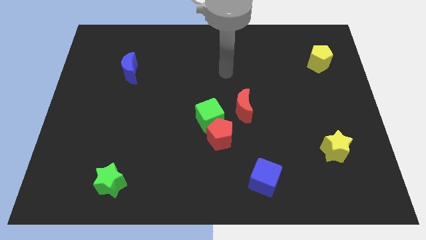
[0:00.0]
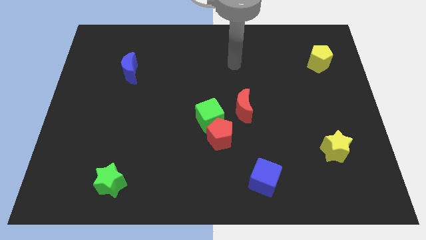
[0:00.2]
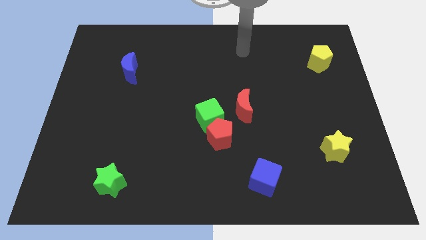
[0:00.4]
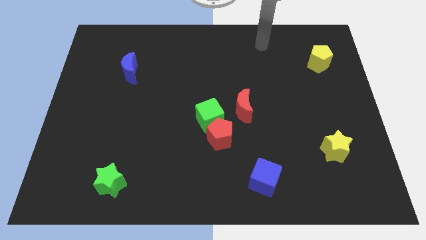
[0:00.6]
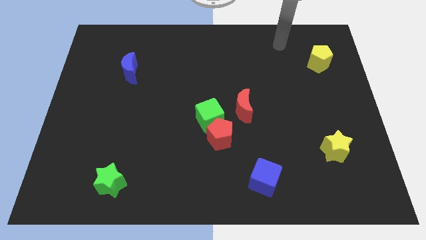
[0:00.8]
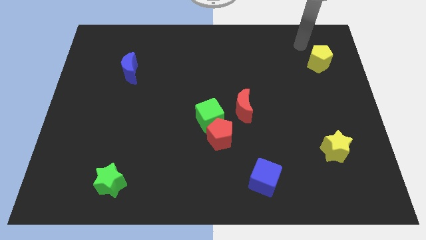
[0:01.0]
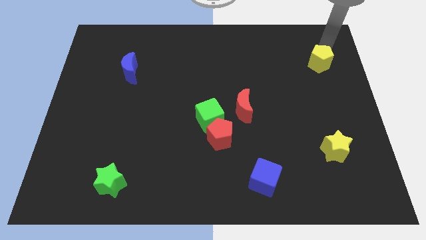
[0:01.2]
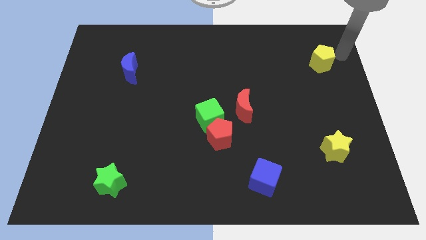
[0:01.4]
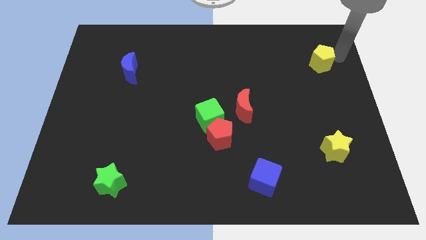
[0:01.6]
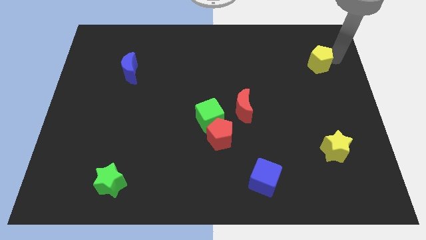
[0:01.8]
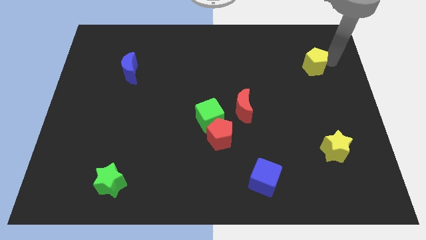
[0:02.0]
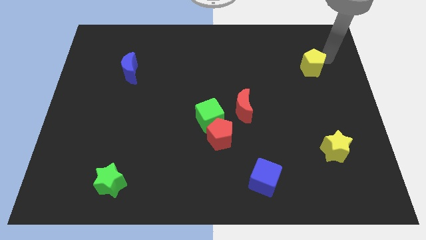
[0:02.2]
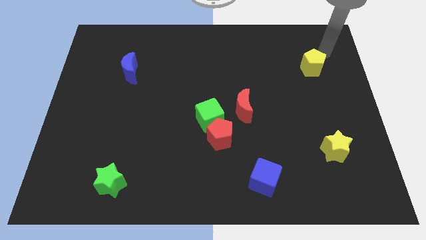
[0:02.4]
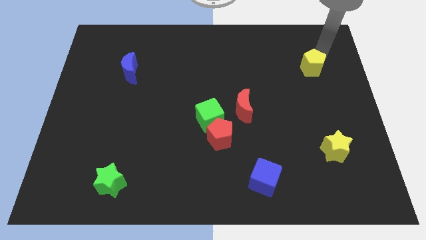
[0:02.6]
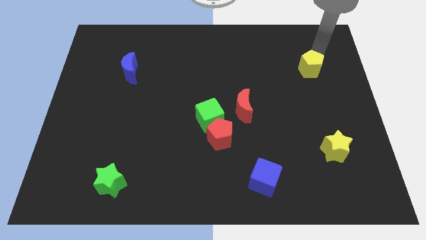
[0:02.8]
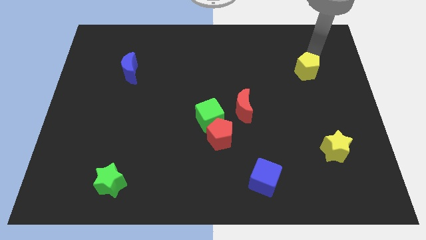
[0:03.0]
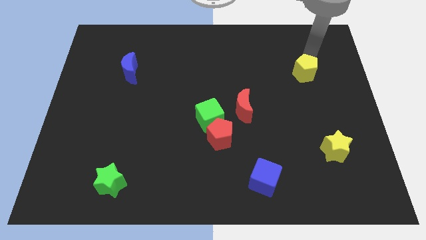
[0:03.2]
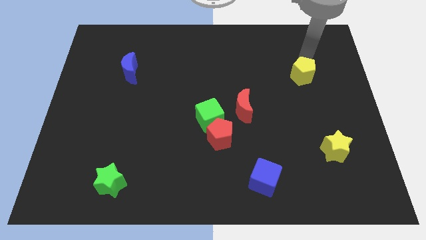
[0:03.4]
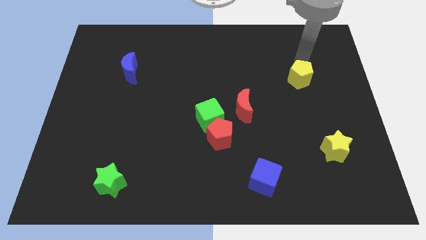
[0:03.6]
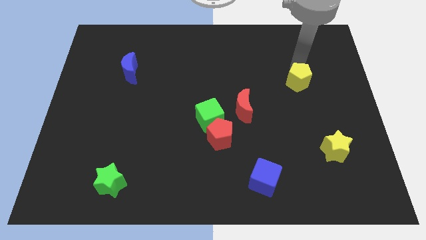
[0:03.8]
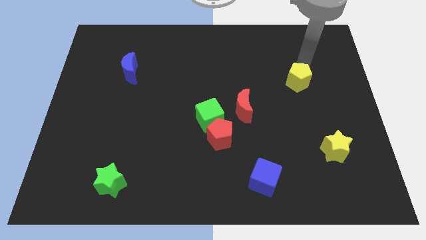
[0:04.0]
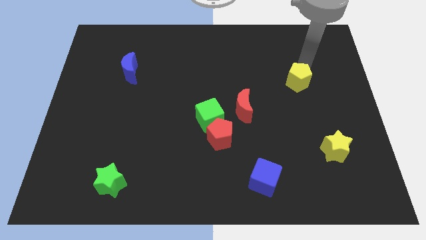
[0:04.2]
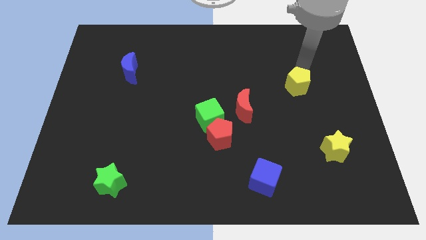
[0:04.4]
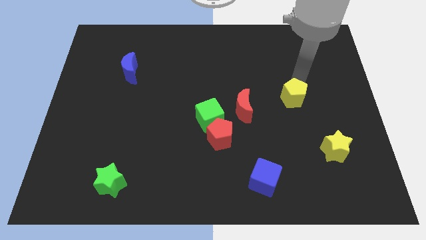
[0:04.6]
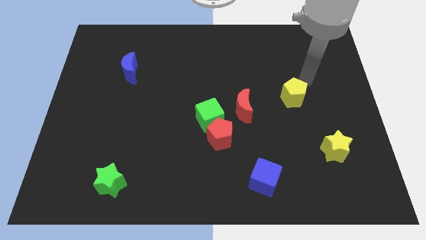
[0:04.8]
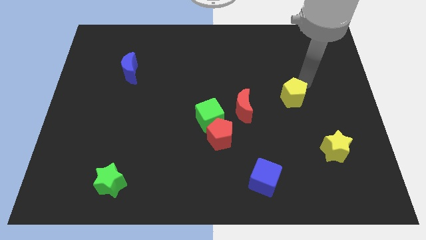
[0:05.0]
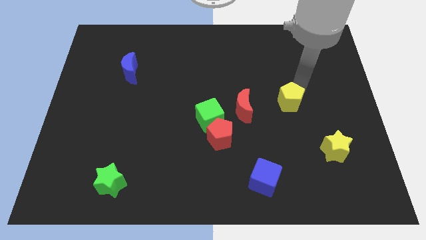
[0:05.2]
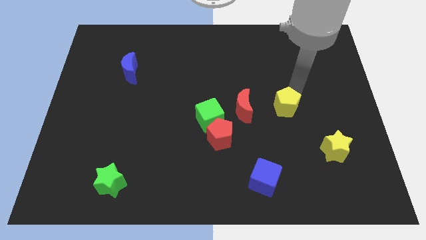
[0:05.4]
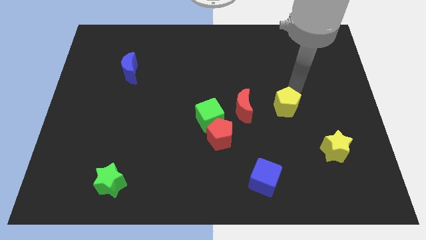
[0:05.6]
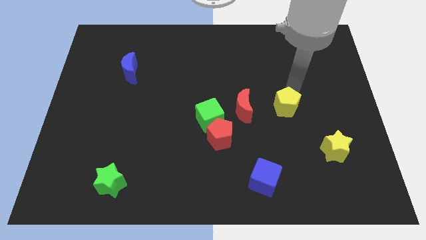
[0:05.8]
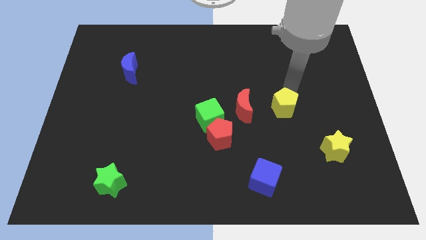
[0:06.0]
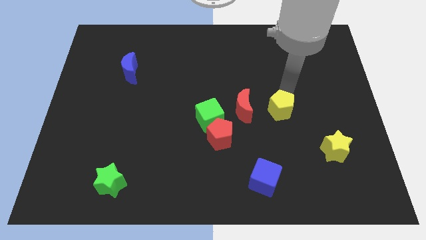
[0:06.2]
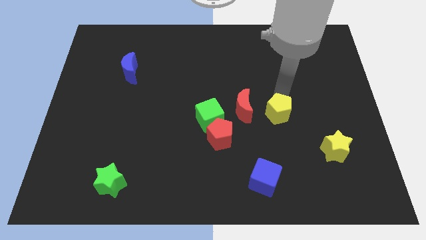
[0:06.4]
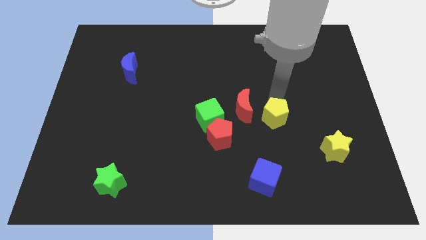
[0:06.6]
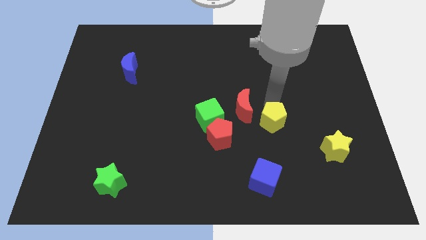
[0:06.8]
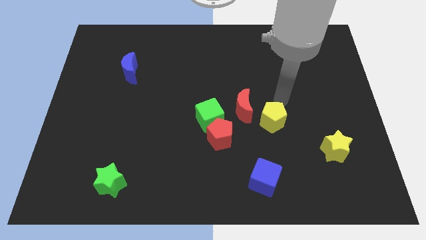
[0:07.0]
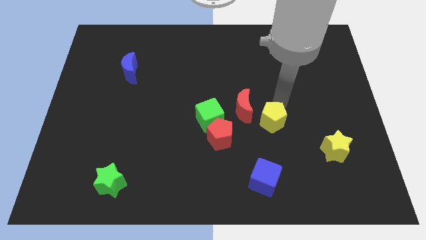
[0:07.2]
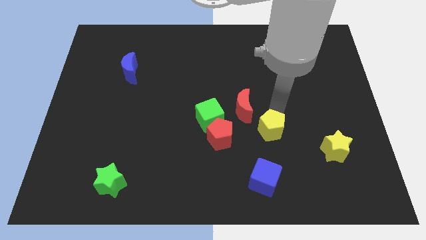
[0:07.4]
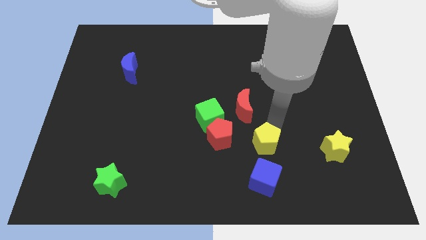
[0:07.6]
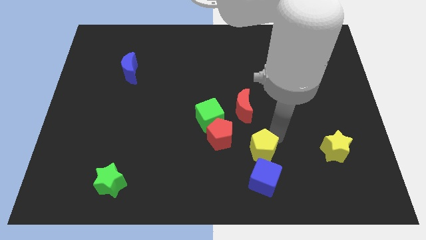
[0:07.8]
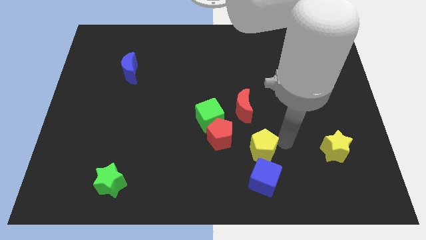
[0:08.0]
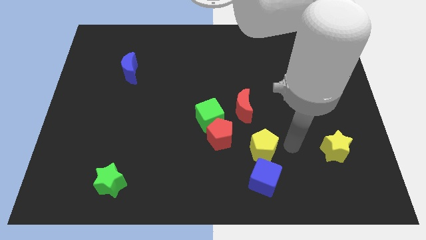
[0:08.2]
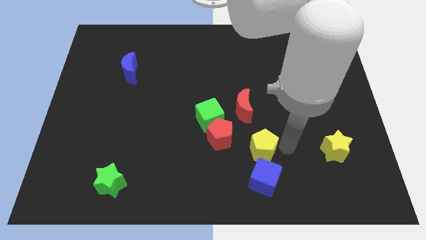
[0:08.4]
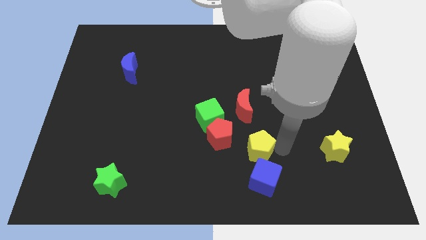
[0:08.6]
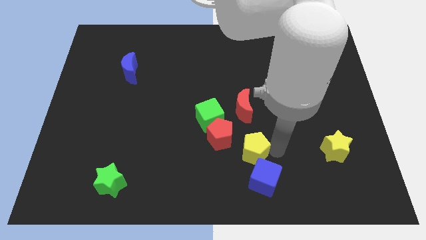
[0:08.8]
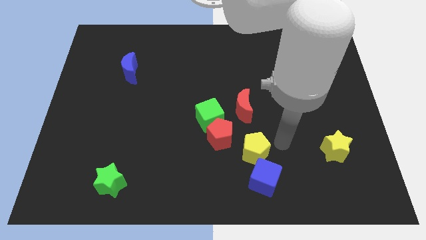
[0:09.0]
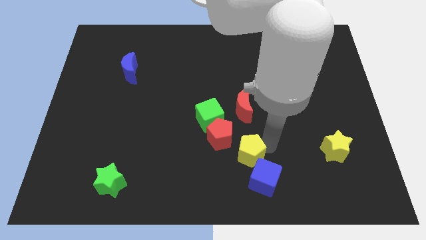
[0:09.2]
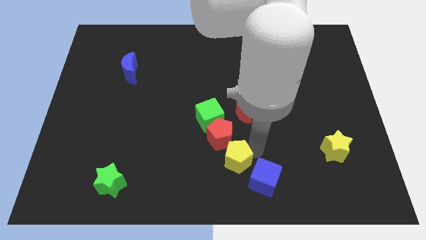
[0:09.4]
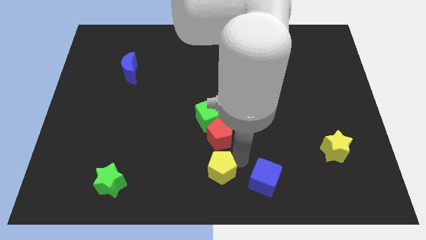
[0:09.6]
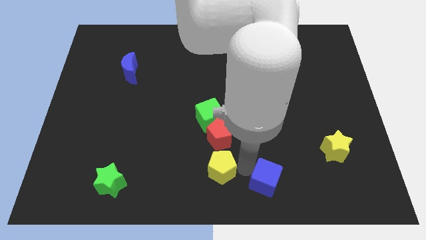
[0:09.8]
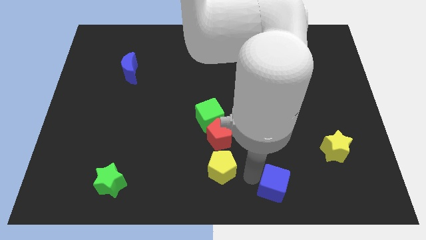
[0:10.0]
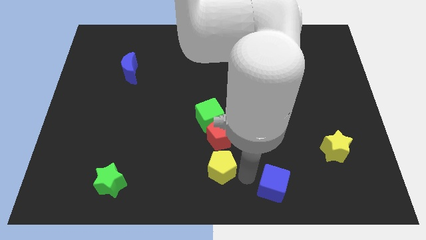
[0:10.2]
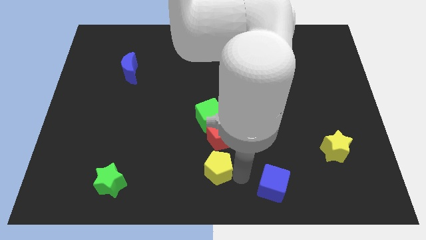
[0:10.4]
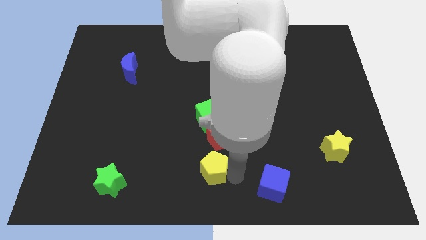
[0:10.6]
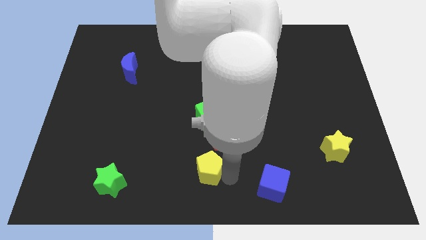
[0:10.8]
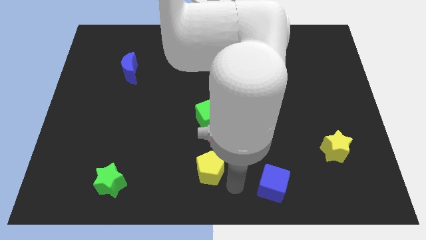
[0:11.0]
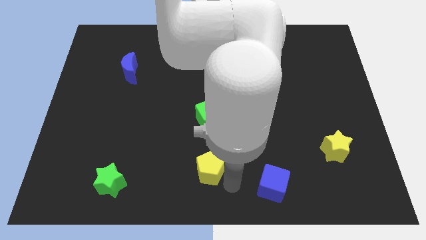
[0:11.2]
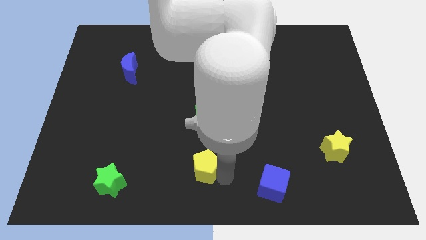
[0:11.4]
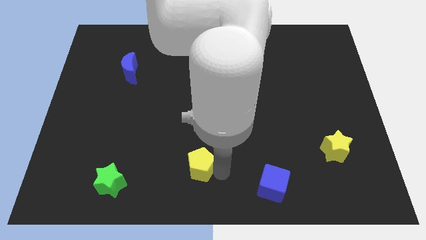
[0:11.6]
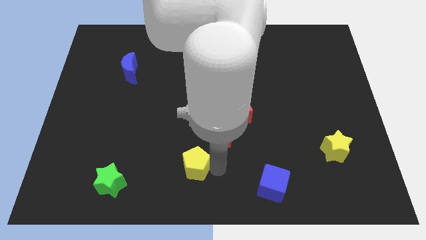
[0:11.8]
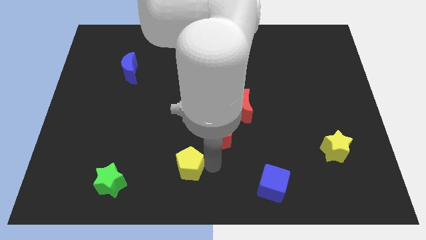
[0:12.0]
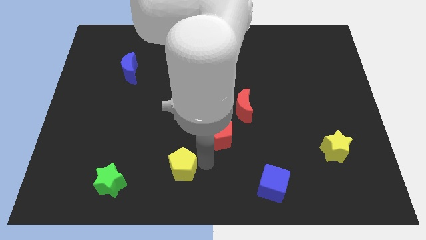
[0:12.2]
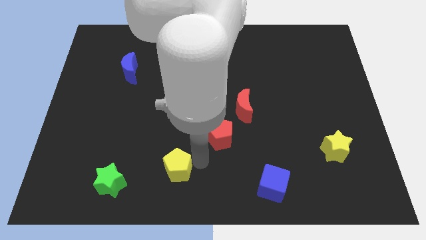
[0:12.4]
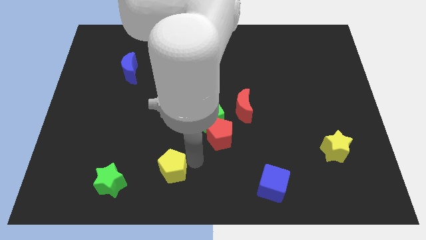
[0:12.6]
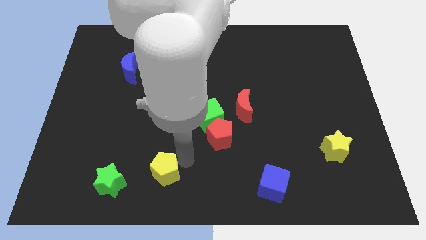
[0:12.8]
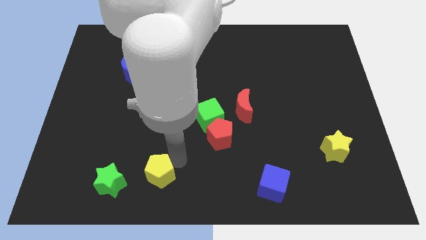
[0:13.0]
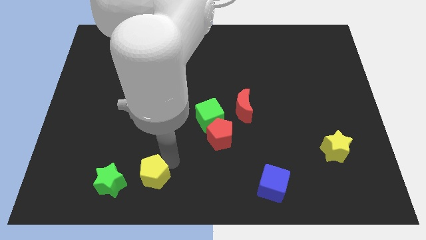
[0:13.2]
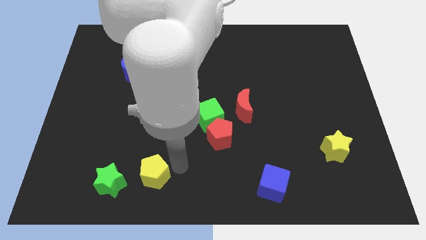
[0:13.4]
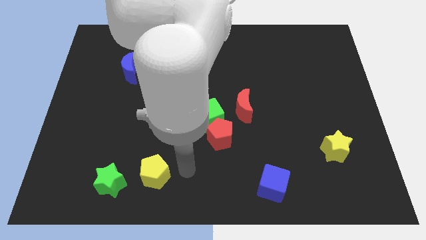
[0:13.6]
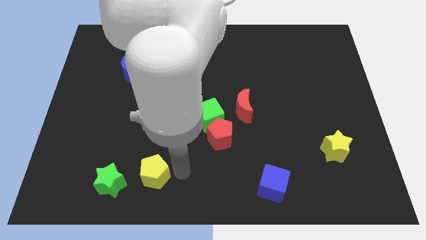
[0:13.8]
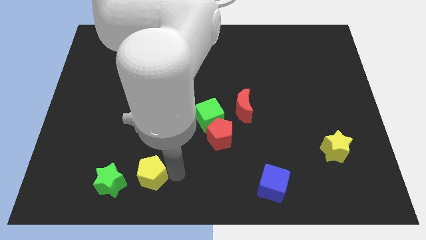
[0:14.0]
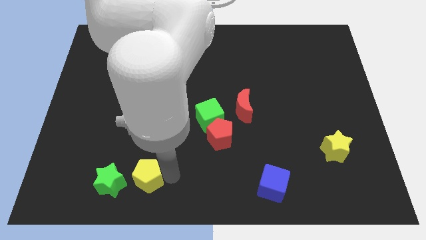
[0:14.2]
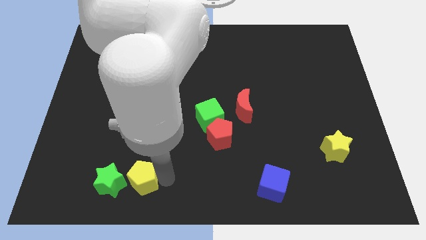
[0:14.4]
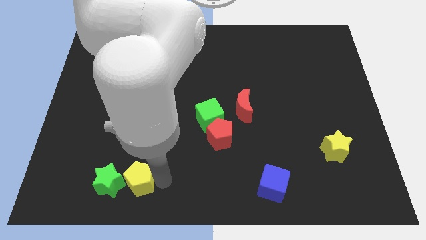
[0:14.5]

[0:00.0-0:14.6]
slide the yellow pentagon to the green star
